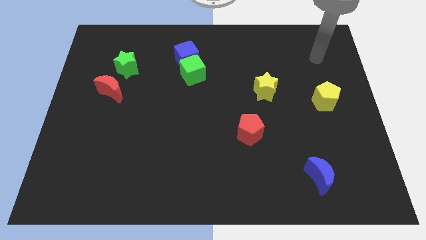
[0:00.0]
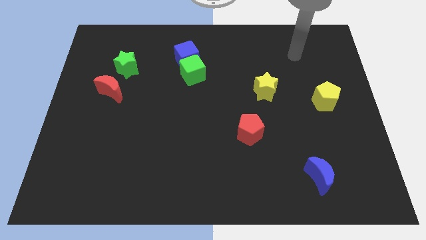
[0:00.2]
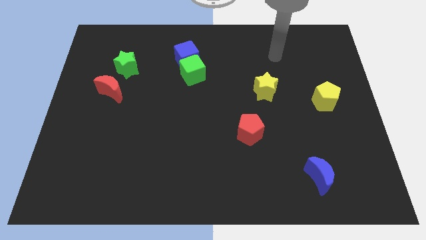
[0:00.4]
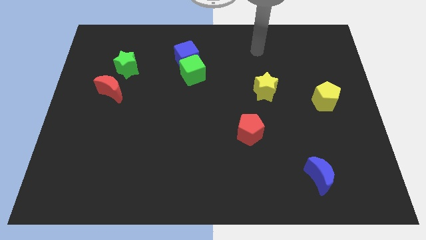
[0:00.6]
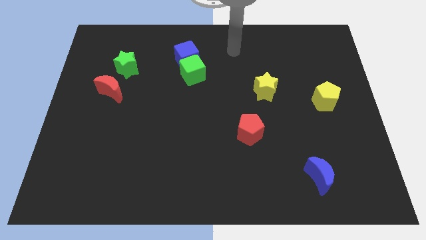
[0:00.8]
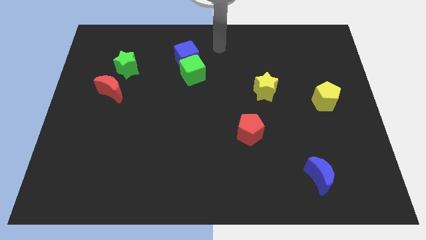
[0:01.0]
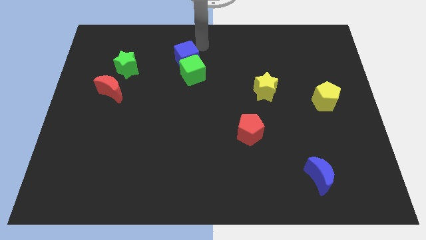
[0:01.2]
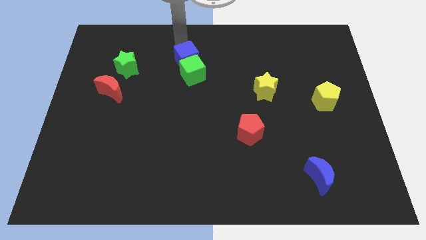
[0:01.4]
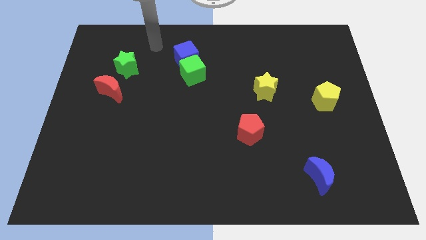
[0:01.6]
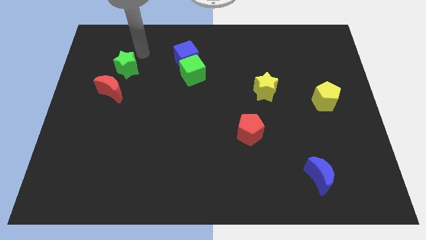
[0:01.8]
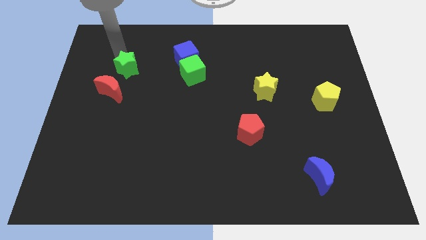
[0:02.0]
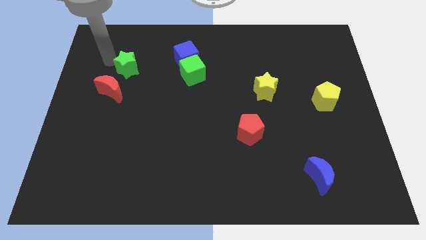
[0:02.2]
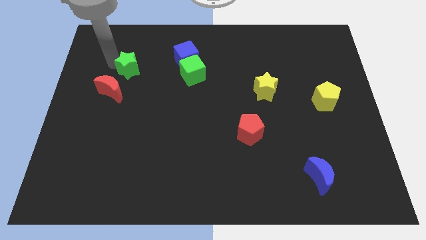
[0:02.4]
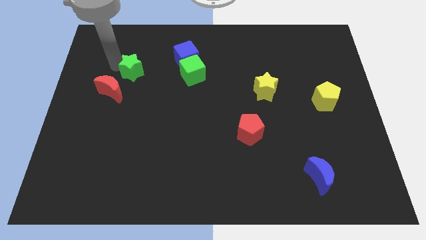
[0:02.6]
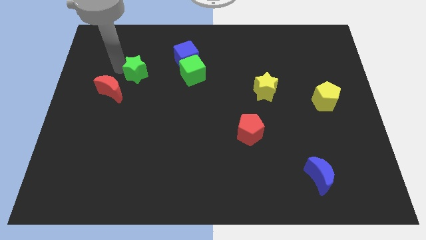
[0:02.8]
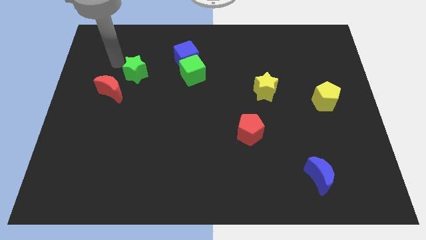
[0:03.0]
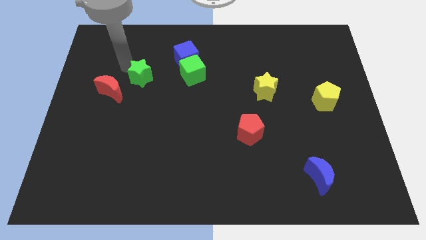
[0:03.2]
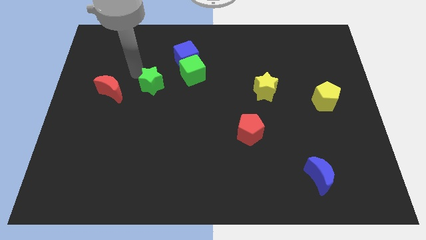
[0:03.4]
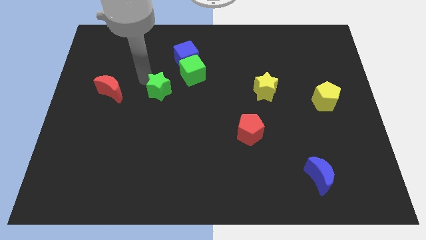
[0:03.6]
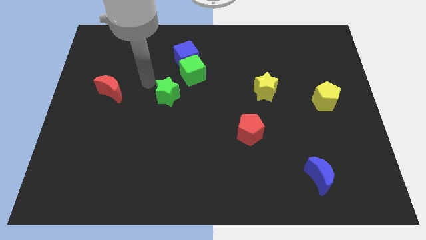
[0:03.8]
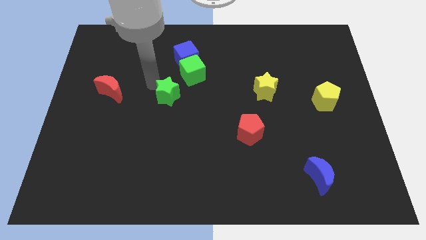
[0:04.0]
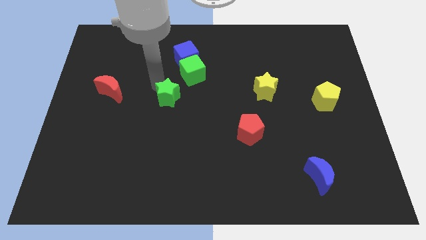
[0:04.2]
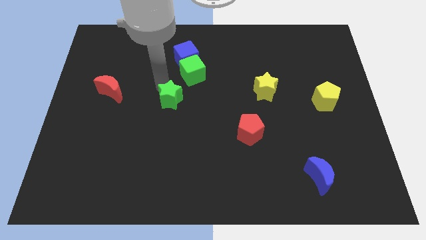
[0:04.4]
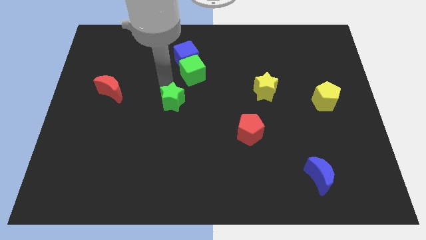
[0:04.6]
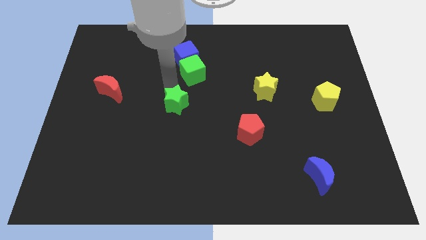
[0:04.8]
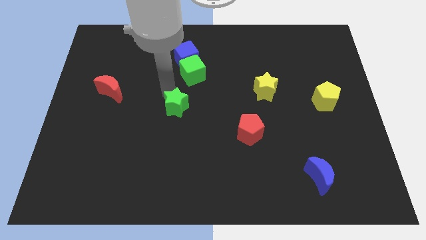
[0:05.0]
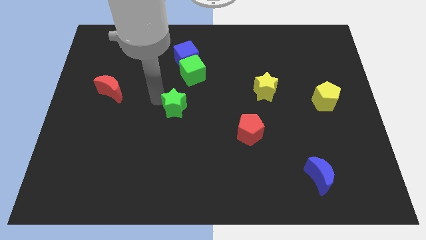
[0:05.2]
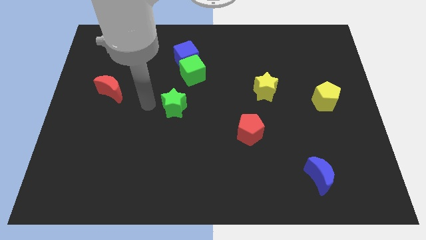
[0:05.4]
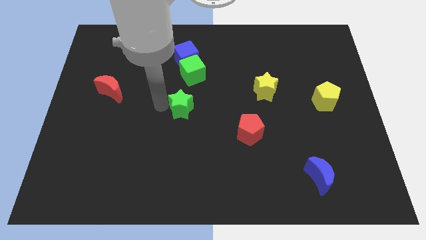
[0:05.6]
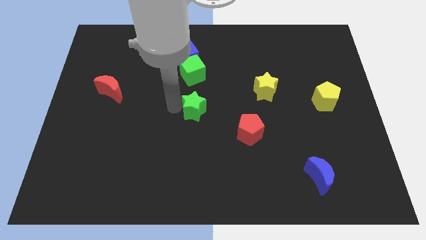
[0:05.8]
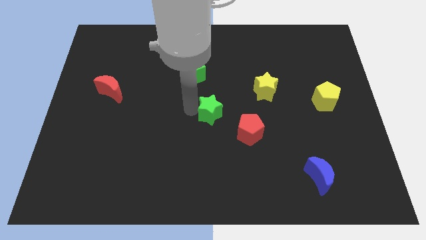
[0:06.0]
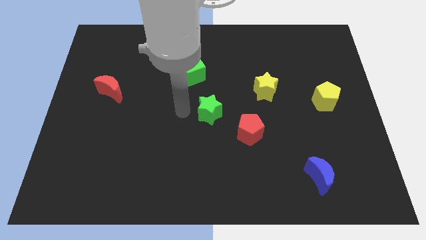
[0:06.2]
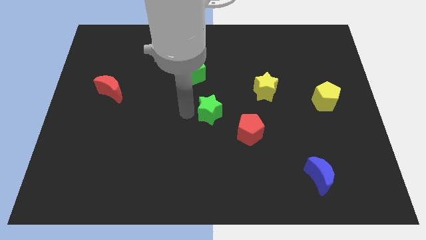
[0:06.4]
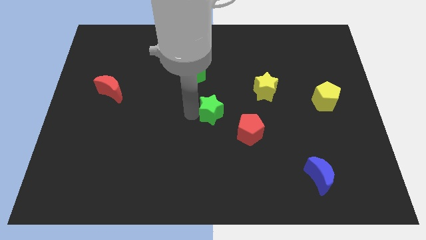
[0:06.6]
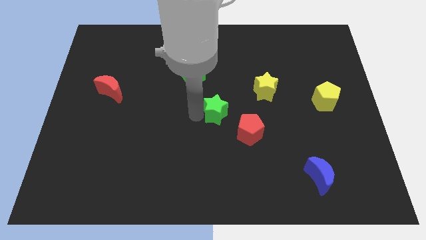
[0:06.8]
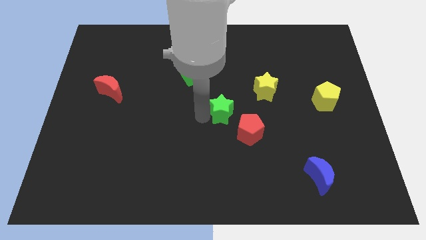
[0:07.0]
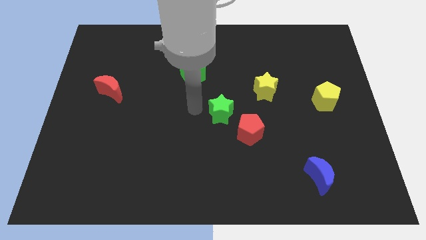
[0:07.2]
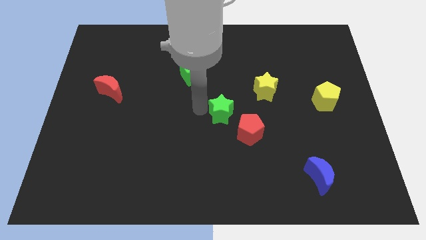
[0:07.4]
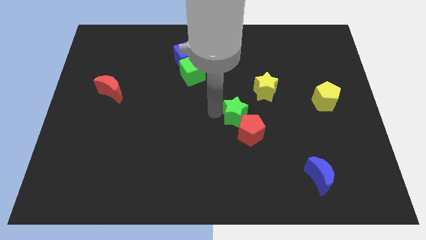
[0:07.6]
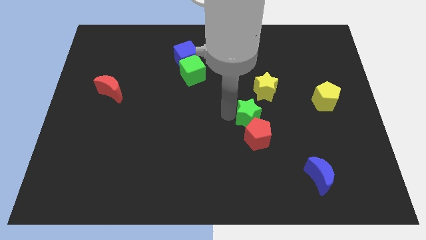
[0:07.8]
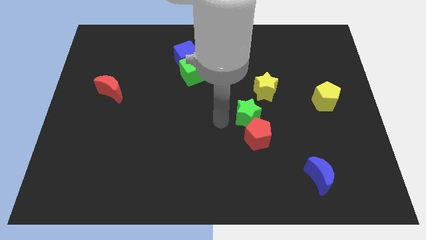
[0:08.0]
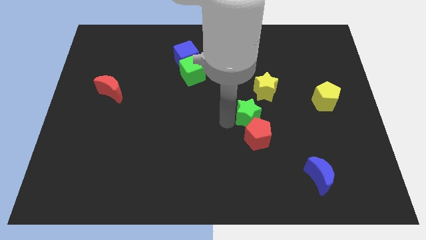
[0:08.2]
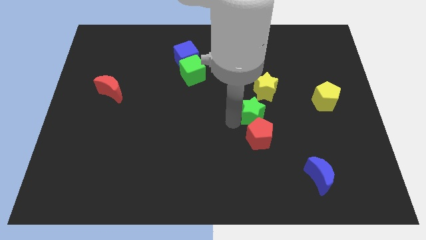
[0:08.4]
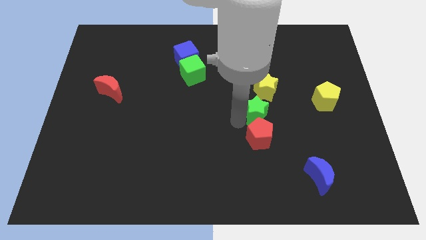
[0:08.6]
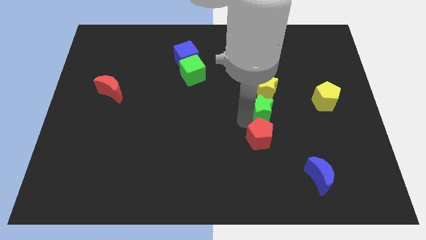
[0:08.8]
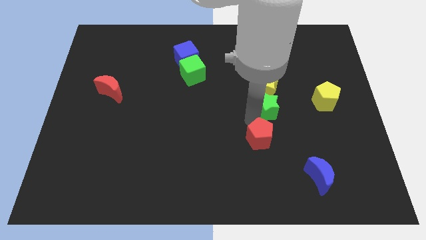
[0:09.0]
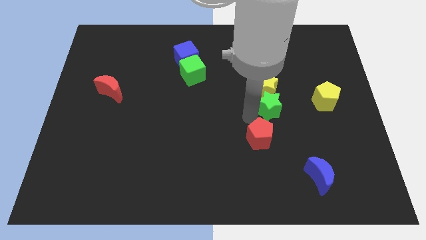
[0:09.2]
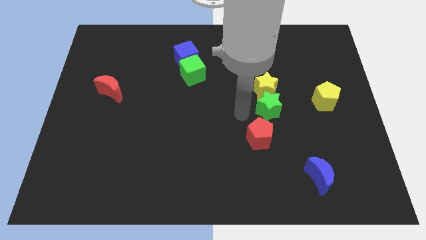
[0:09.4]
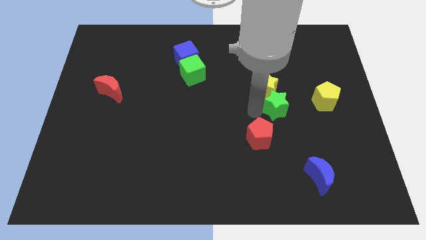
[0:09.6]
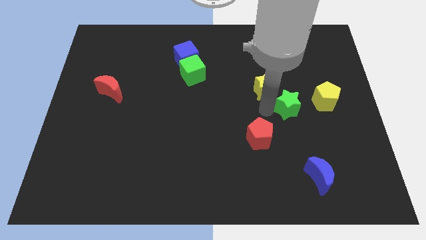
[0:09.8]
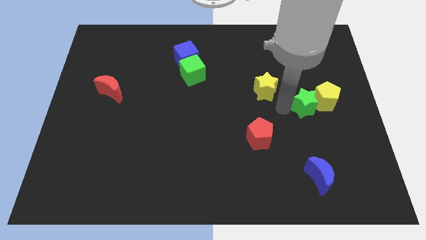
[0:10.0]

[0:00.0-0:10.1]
push the green star close to the yellow pentagon

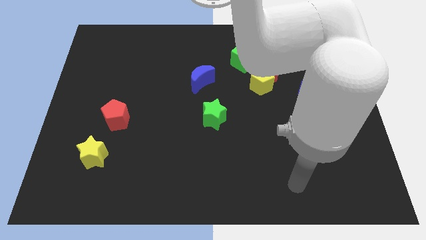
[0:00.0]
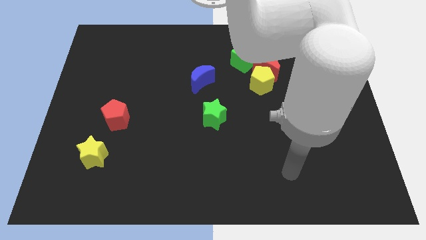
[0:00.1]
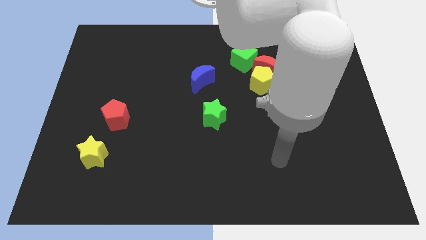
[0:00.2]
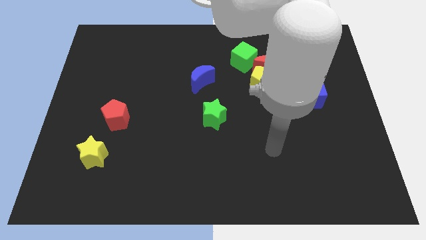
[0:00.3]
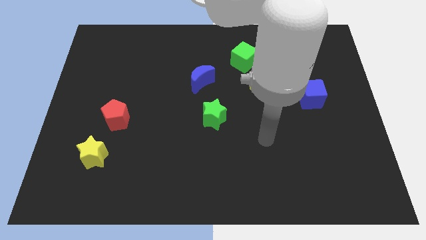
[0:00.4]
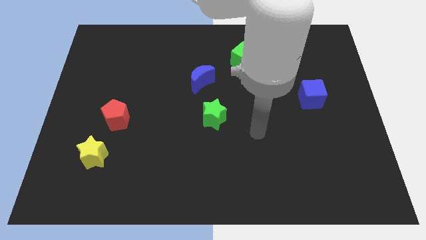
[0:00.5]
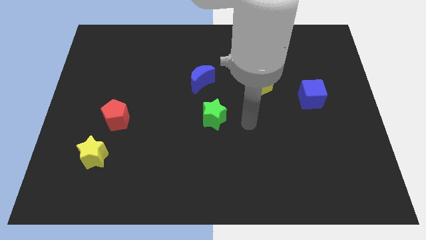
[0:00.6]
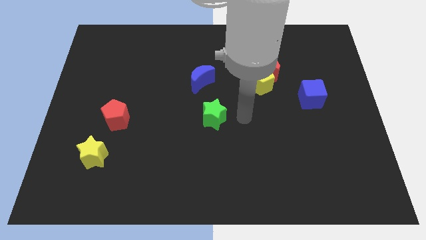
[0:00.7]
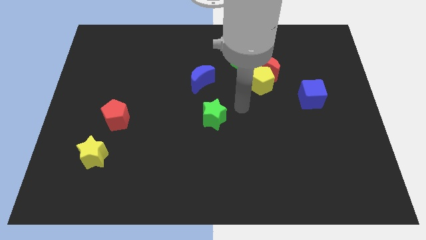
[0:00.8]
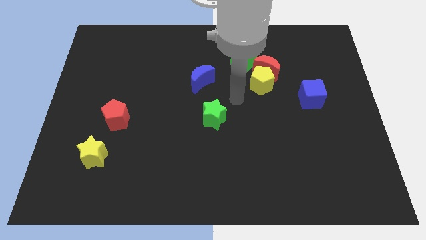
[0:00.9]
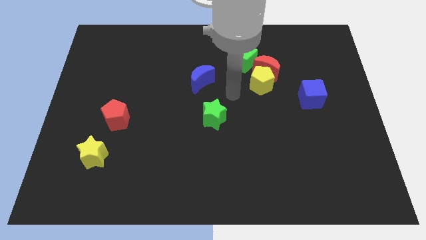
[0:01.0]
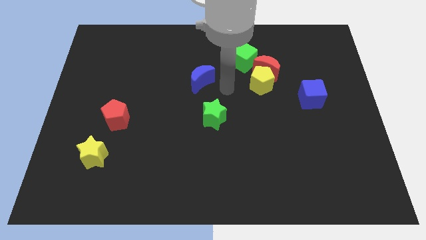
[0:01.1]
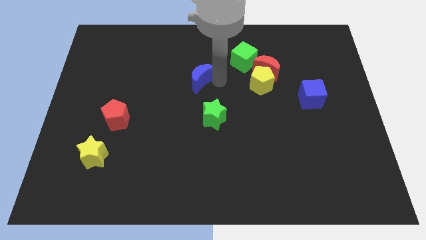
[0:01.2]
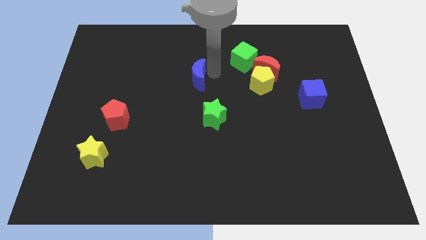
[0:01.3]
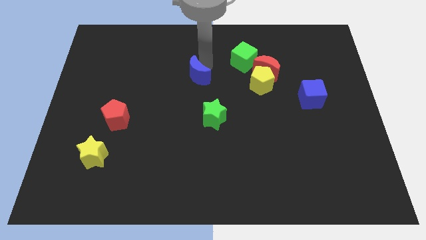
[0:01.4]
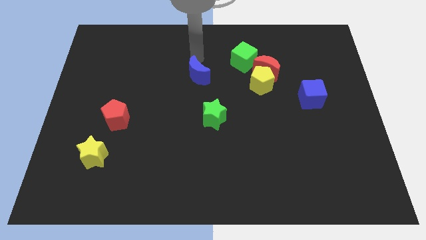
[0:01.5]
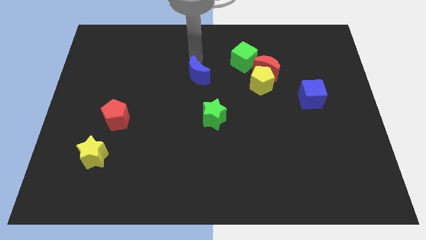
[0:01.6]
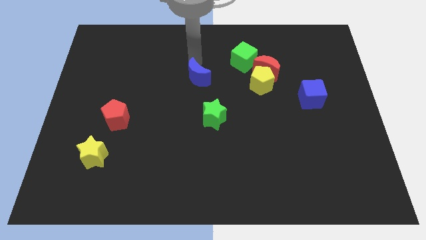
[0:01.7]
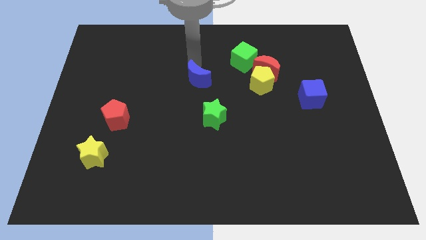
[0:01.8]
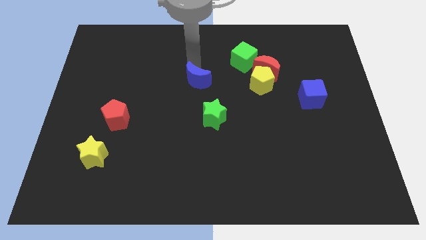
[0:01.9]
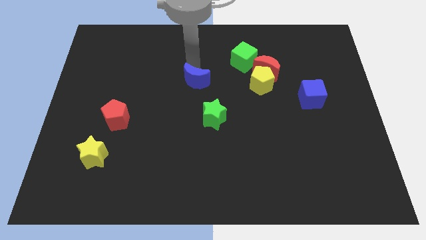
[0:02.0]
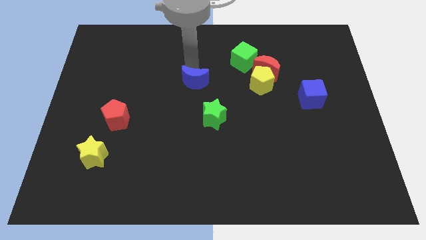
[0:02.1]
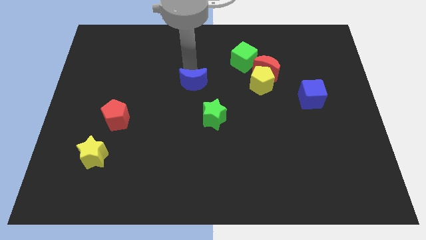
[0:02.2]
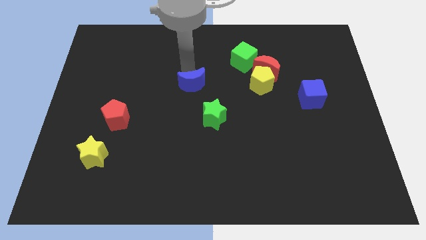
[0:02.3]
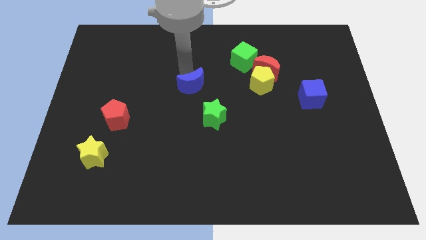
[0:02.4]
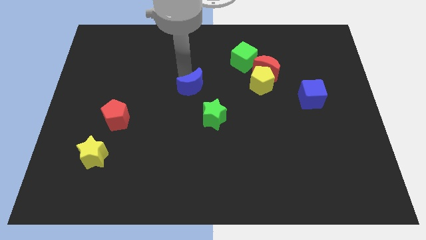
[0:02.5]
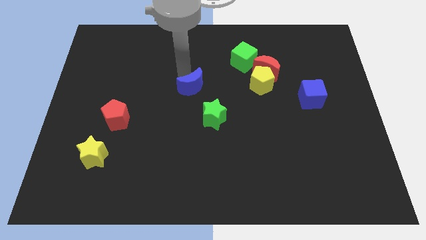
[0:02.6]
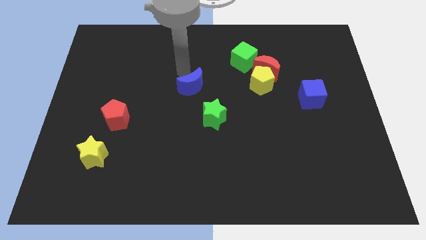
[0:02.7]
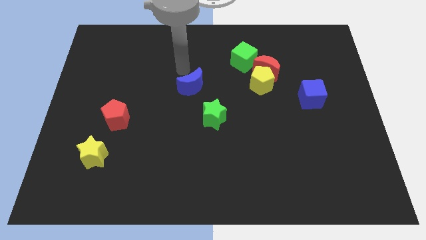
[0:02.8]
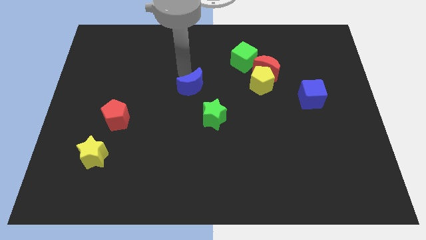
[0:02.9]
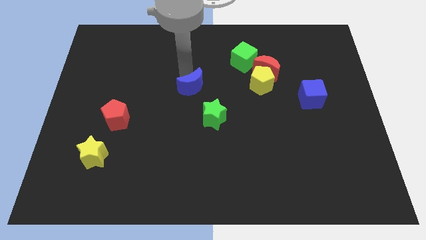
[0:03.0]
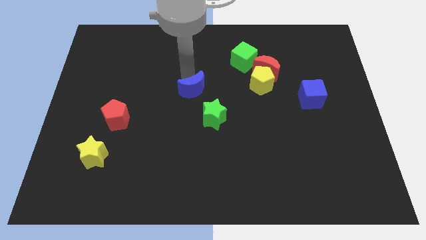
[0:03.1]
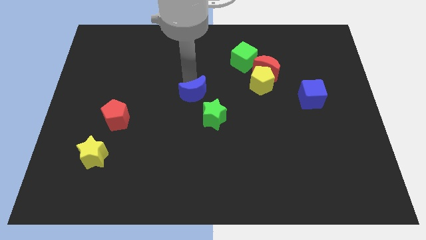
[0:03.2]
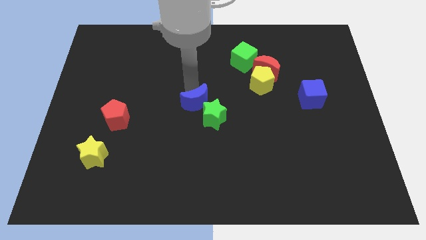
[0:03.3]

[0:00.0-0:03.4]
slide the blue moon to the green star
